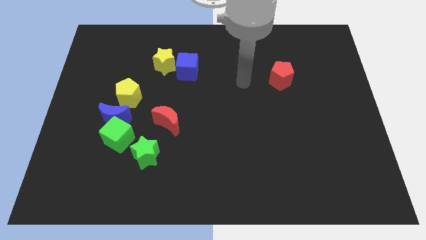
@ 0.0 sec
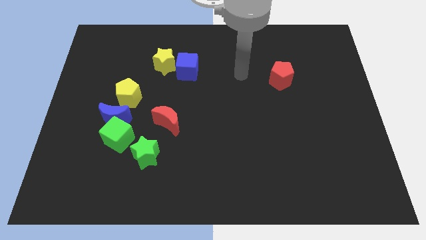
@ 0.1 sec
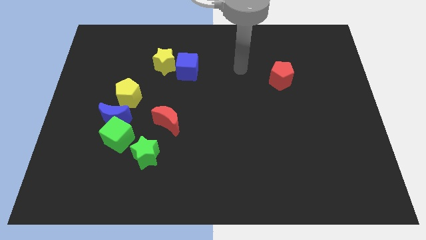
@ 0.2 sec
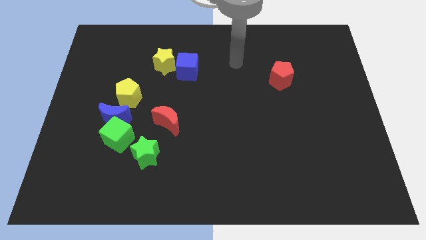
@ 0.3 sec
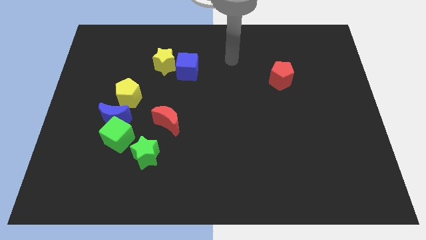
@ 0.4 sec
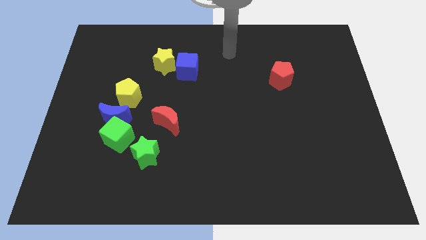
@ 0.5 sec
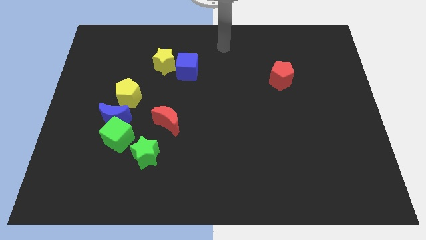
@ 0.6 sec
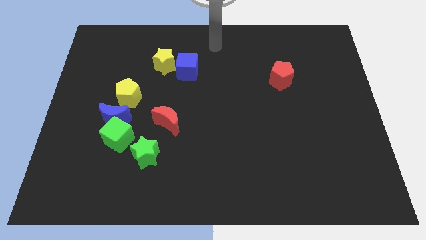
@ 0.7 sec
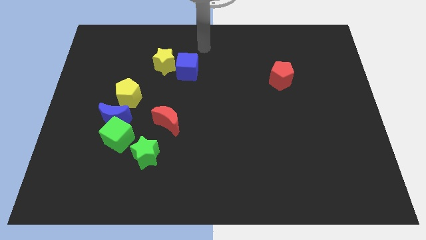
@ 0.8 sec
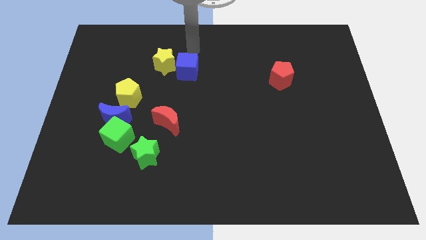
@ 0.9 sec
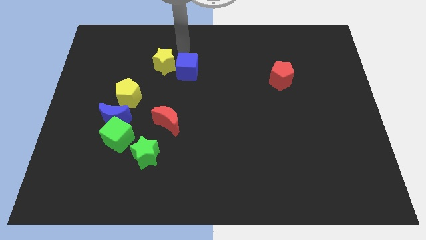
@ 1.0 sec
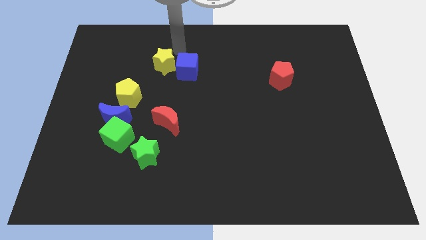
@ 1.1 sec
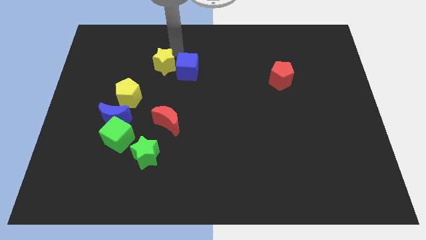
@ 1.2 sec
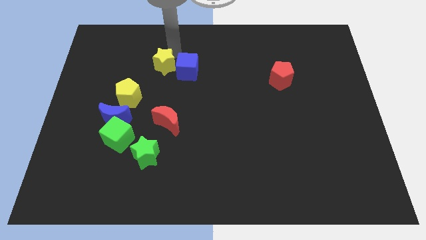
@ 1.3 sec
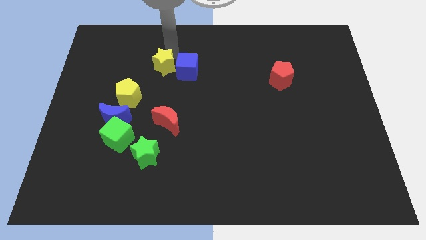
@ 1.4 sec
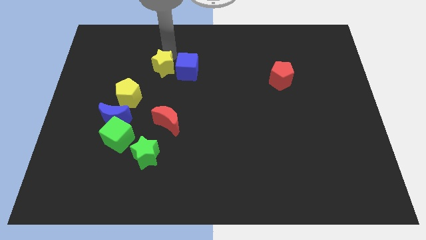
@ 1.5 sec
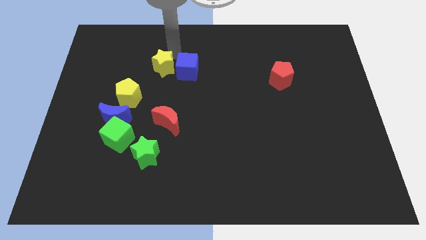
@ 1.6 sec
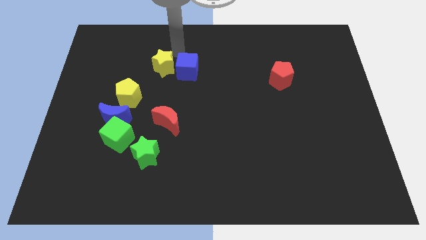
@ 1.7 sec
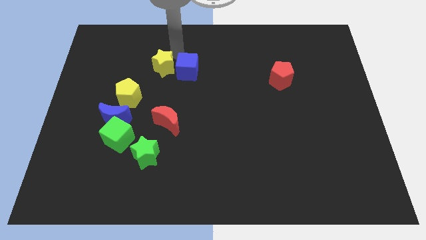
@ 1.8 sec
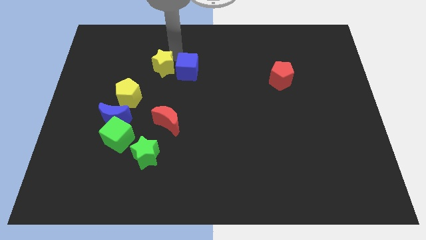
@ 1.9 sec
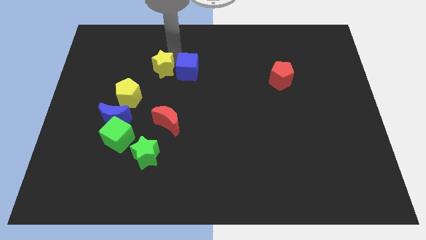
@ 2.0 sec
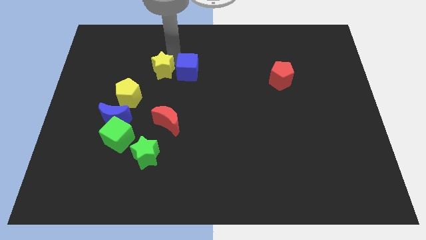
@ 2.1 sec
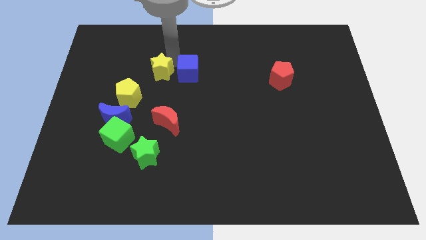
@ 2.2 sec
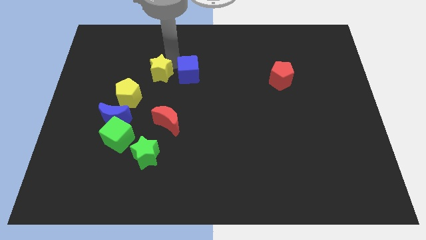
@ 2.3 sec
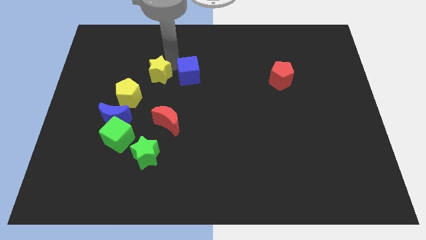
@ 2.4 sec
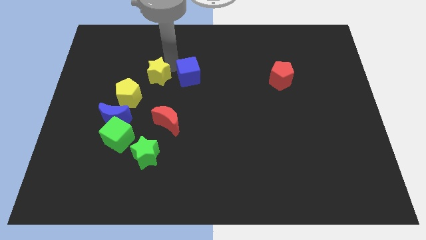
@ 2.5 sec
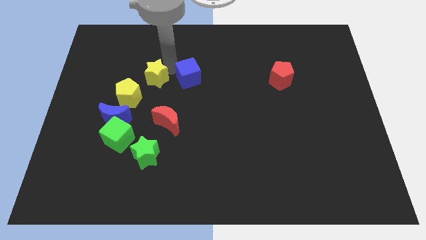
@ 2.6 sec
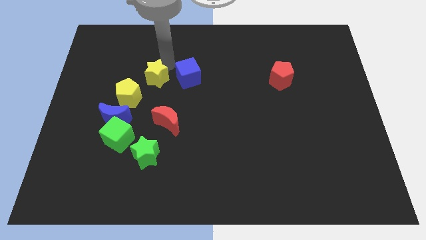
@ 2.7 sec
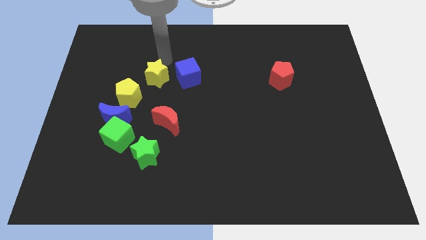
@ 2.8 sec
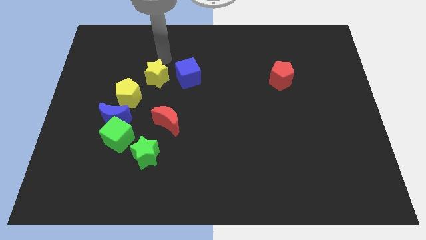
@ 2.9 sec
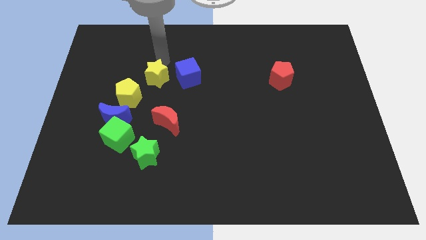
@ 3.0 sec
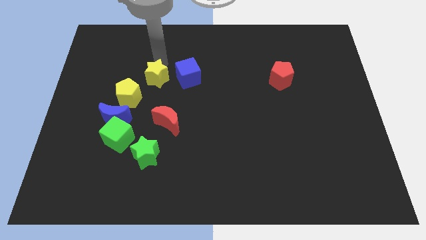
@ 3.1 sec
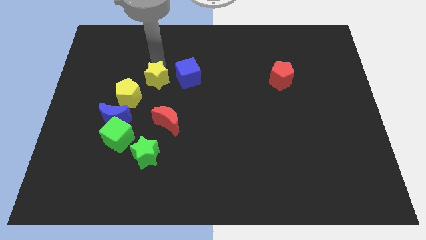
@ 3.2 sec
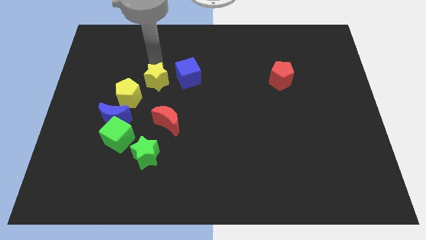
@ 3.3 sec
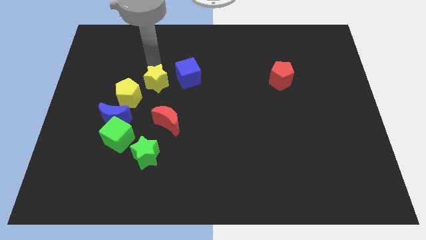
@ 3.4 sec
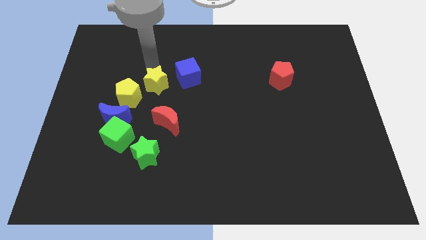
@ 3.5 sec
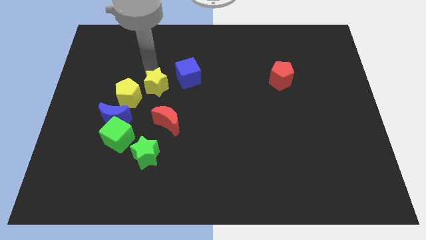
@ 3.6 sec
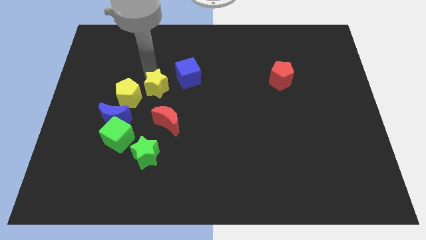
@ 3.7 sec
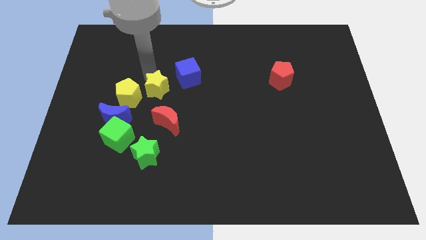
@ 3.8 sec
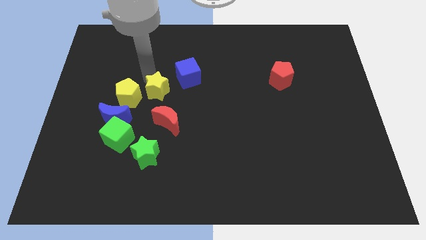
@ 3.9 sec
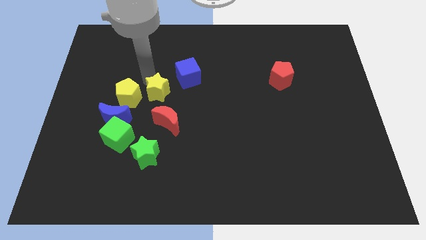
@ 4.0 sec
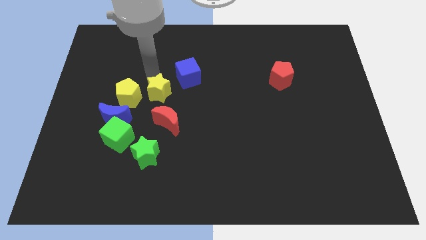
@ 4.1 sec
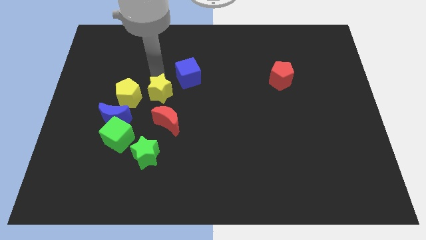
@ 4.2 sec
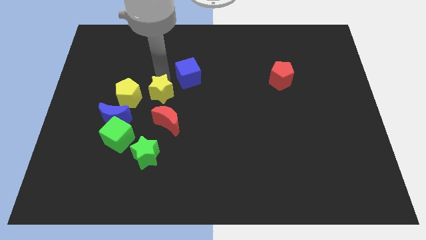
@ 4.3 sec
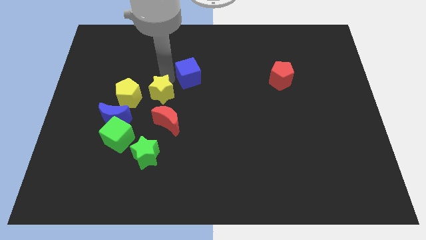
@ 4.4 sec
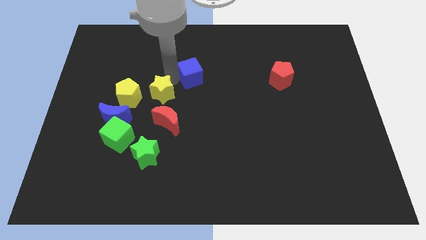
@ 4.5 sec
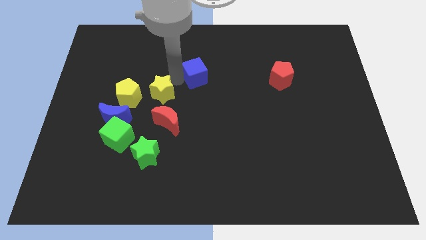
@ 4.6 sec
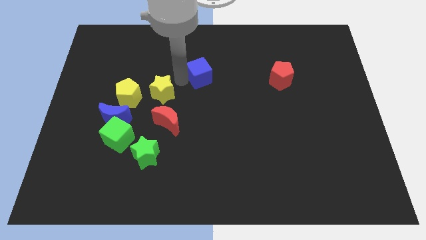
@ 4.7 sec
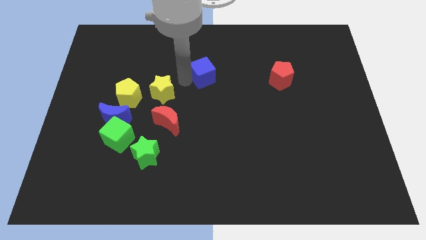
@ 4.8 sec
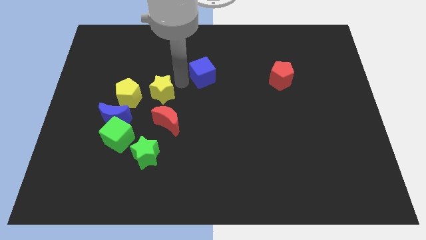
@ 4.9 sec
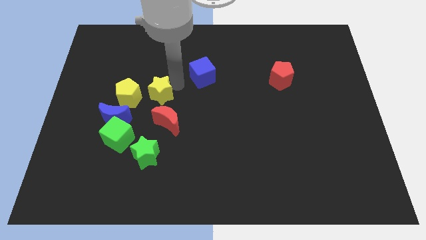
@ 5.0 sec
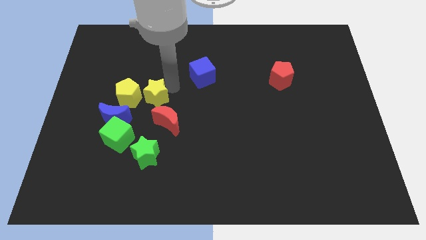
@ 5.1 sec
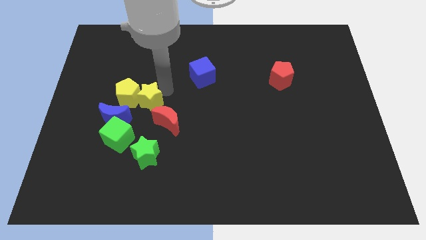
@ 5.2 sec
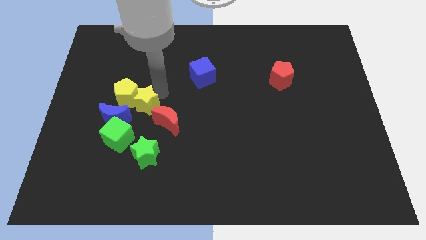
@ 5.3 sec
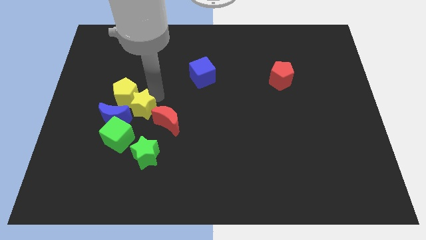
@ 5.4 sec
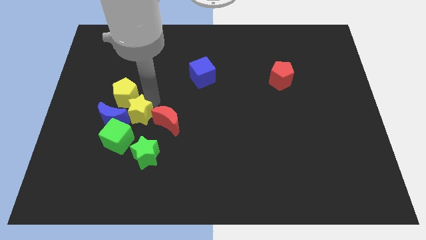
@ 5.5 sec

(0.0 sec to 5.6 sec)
push the yellow star close to the blue moon

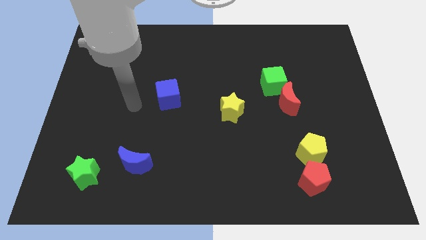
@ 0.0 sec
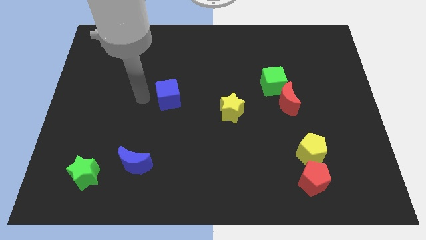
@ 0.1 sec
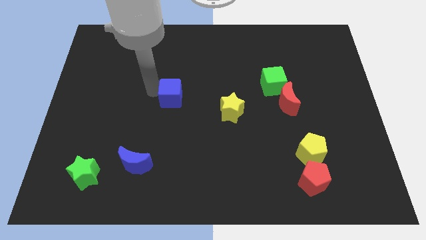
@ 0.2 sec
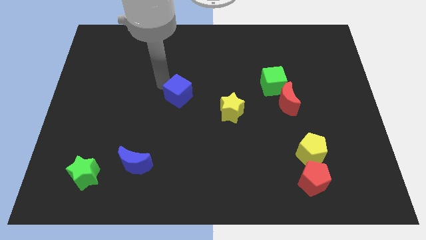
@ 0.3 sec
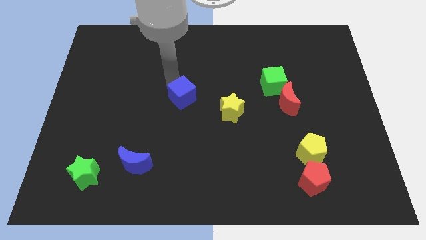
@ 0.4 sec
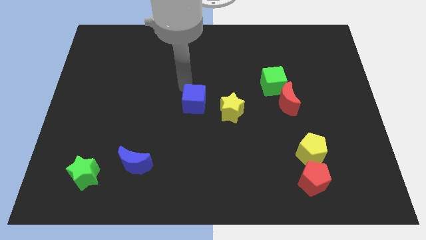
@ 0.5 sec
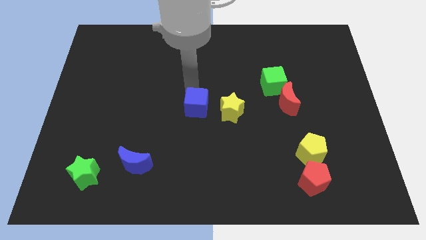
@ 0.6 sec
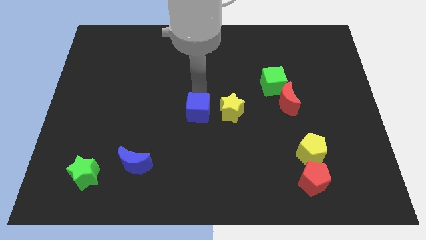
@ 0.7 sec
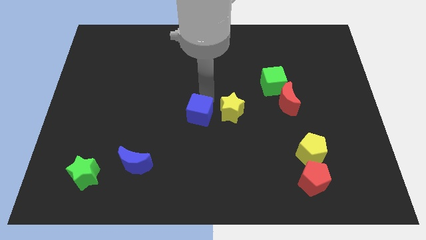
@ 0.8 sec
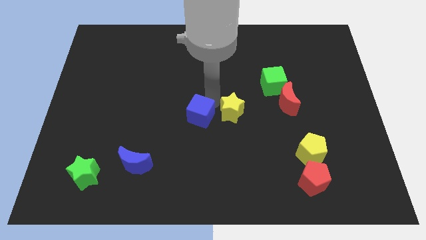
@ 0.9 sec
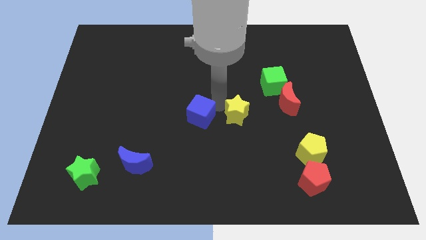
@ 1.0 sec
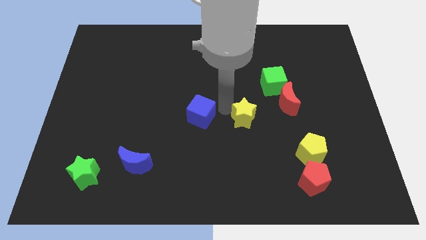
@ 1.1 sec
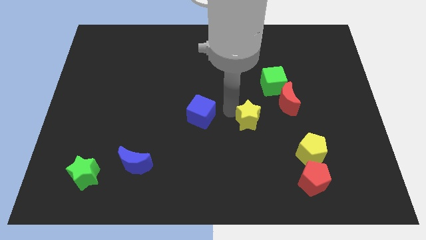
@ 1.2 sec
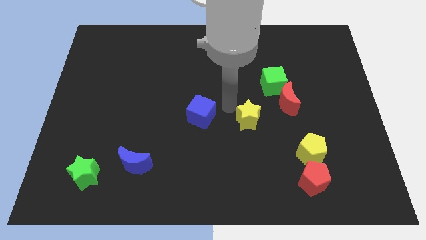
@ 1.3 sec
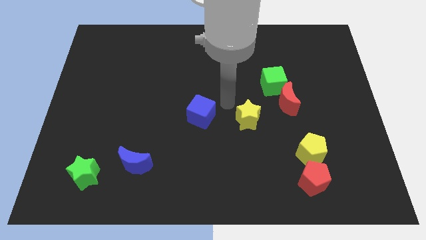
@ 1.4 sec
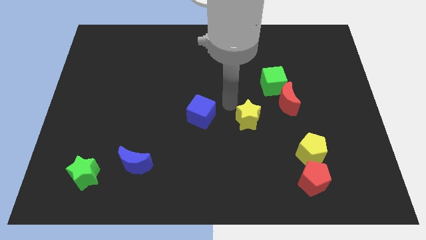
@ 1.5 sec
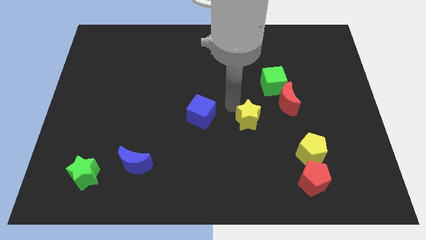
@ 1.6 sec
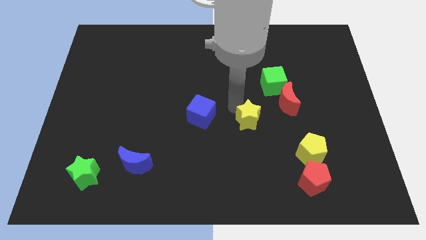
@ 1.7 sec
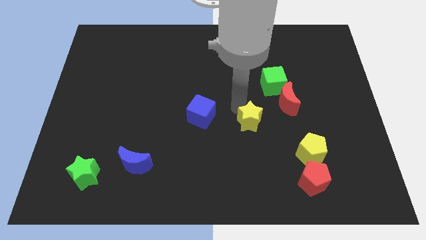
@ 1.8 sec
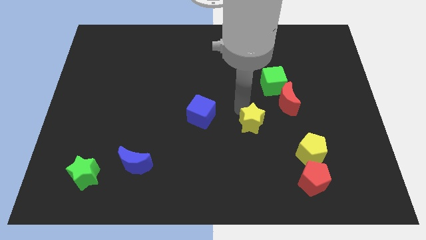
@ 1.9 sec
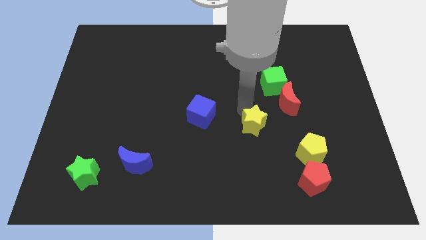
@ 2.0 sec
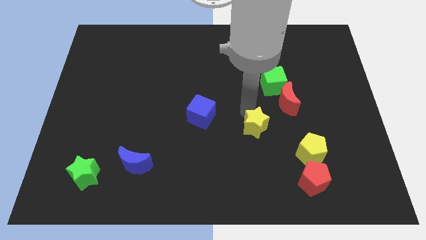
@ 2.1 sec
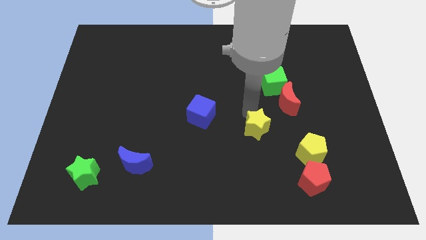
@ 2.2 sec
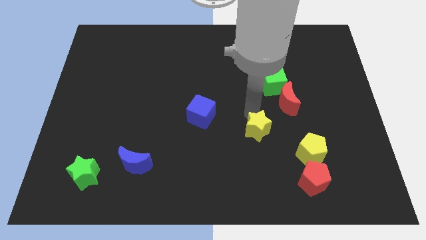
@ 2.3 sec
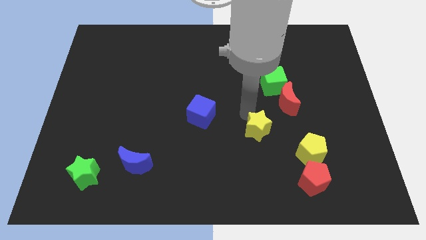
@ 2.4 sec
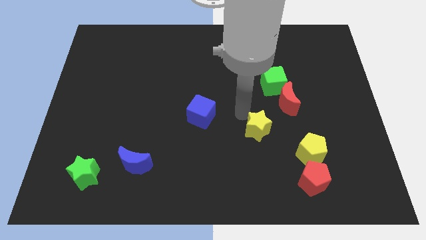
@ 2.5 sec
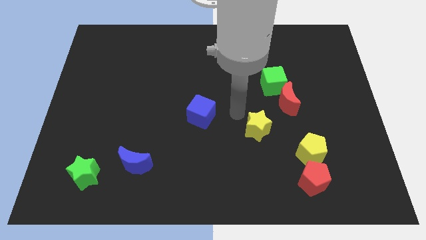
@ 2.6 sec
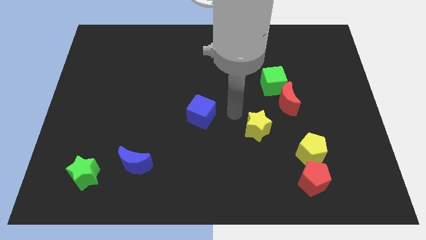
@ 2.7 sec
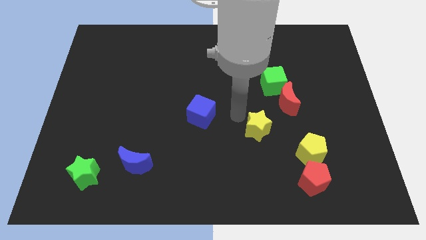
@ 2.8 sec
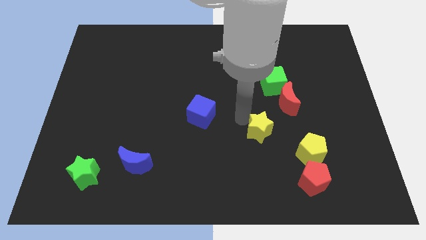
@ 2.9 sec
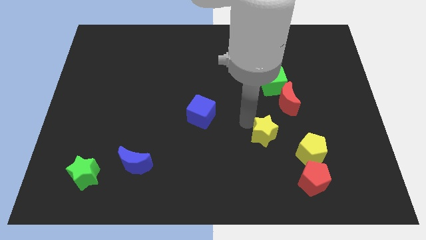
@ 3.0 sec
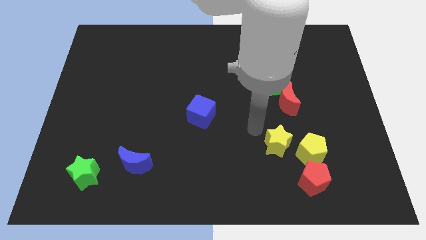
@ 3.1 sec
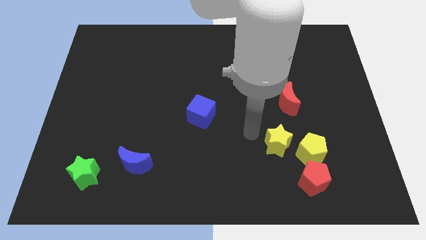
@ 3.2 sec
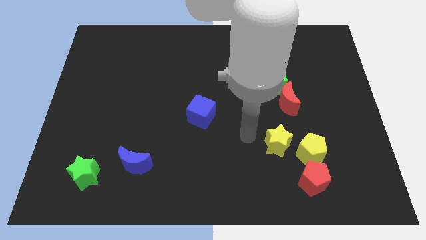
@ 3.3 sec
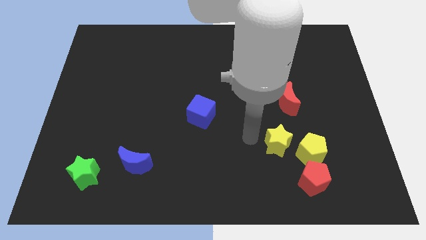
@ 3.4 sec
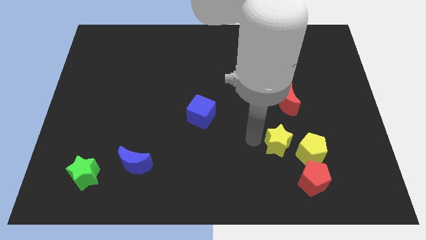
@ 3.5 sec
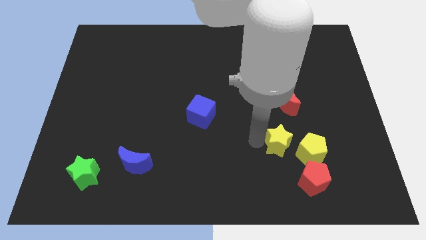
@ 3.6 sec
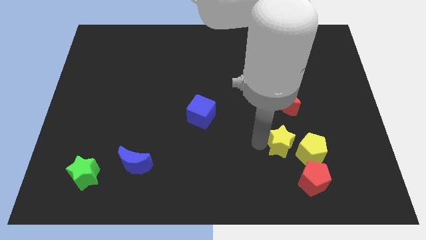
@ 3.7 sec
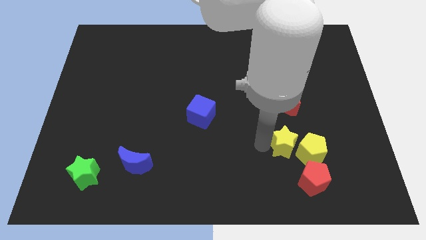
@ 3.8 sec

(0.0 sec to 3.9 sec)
push the yellow star next to the yellow pentagon
